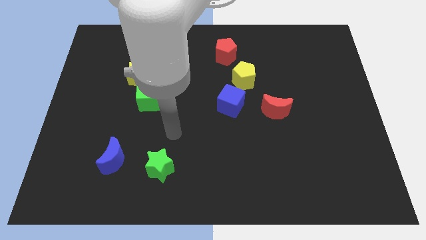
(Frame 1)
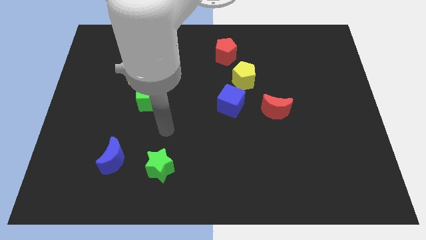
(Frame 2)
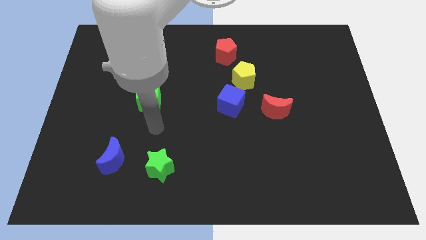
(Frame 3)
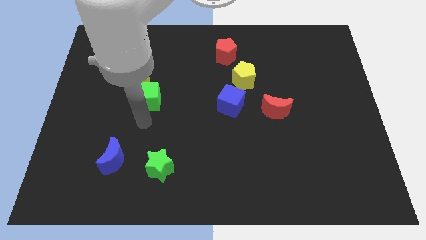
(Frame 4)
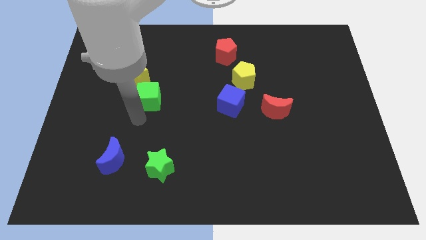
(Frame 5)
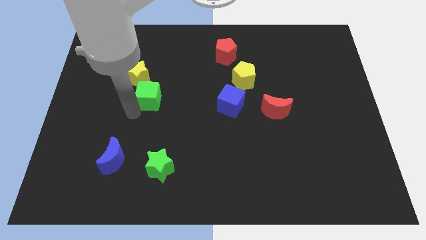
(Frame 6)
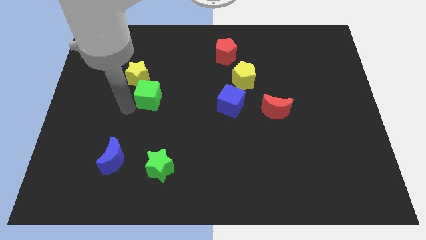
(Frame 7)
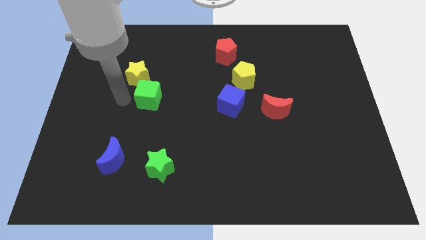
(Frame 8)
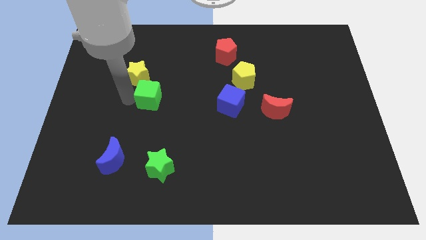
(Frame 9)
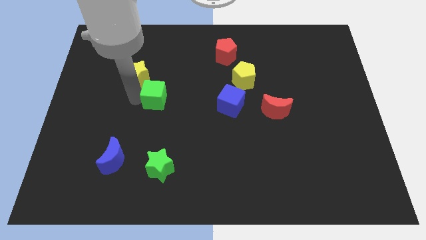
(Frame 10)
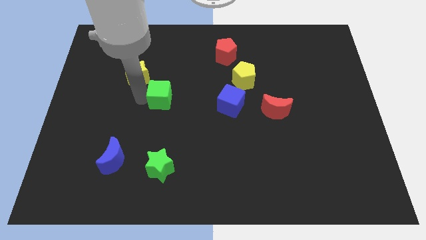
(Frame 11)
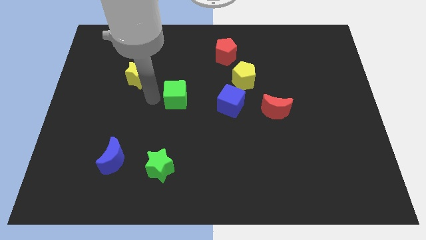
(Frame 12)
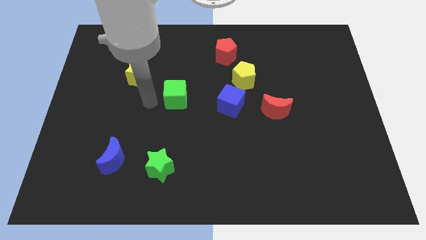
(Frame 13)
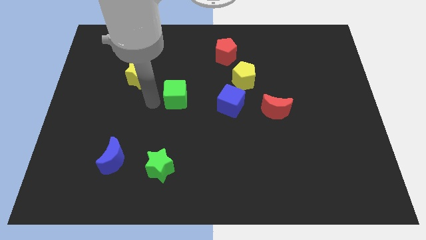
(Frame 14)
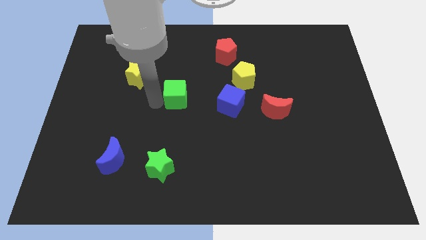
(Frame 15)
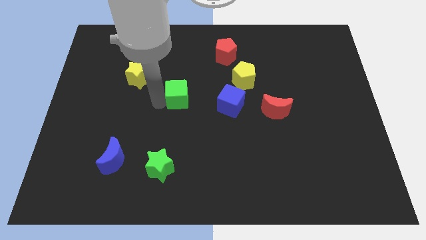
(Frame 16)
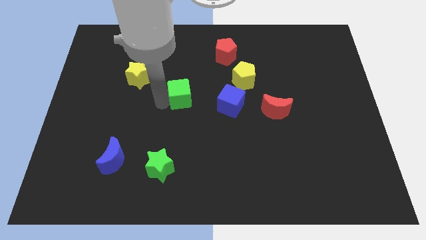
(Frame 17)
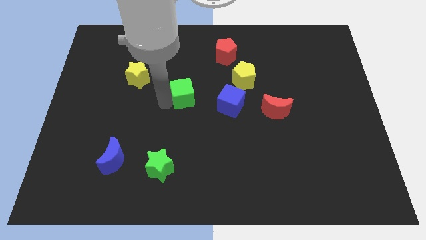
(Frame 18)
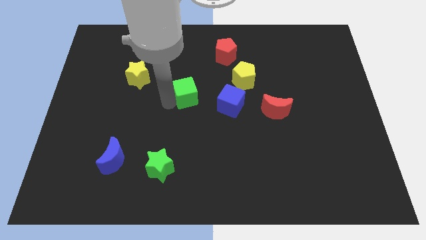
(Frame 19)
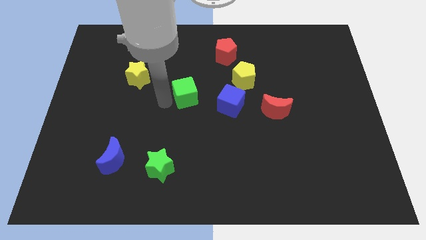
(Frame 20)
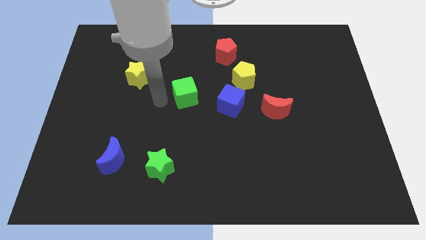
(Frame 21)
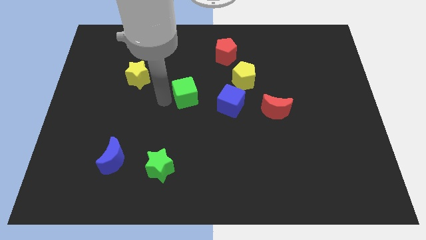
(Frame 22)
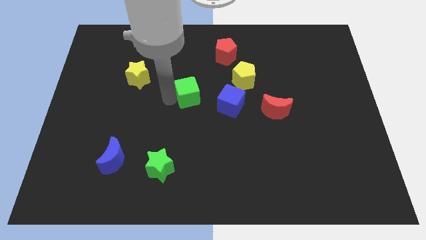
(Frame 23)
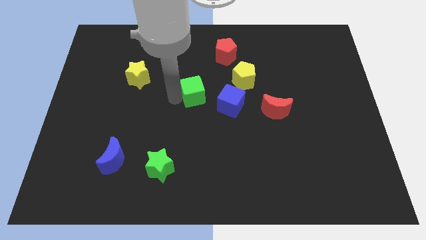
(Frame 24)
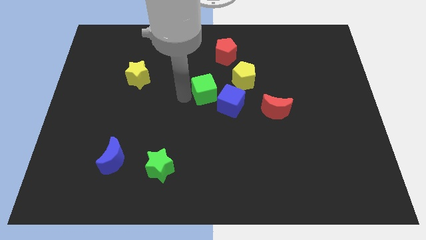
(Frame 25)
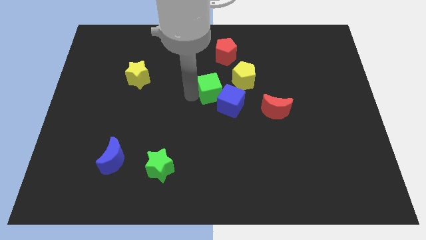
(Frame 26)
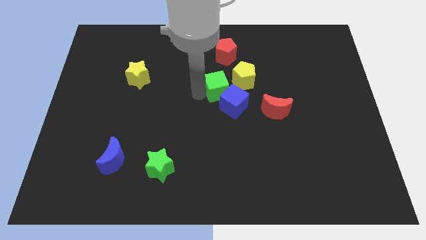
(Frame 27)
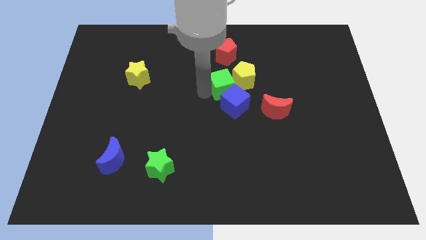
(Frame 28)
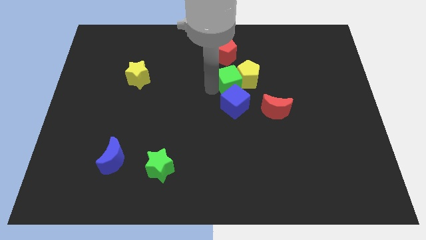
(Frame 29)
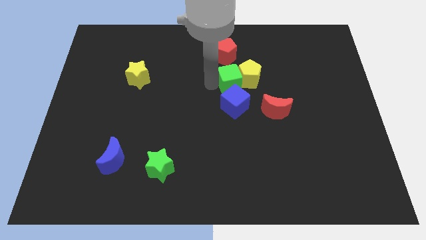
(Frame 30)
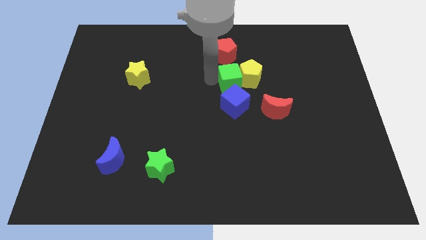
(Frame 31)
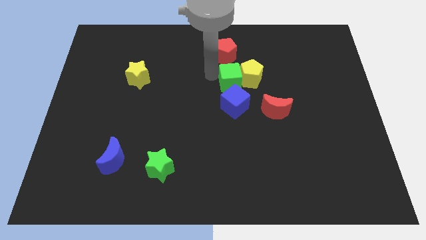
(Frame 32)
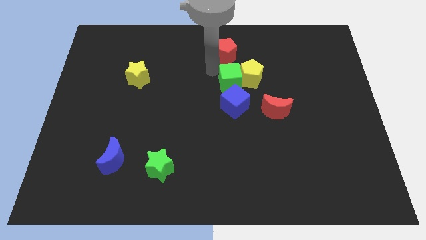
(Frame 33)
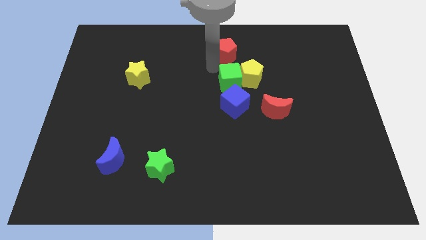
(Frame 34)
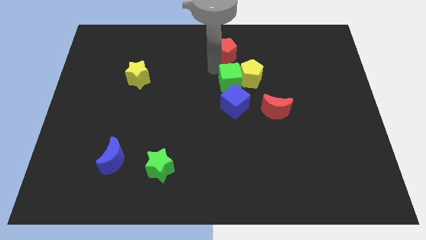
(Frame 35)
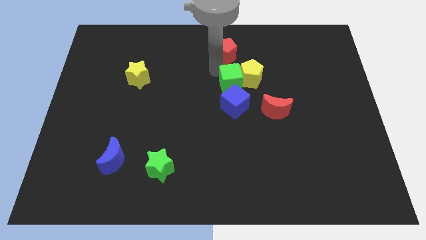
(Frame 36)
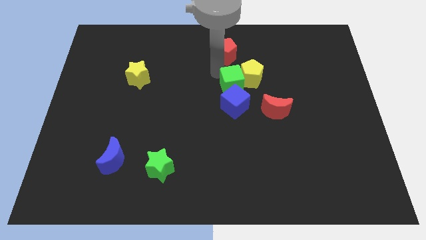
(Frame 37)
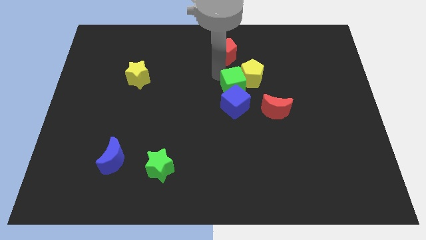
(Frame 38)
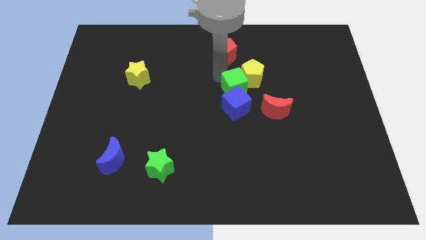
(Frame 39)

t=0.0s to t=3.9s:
move the green cube right

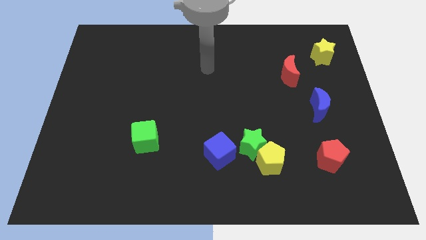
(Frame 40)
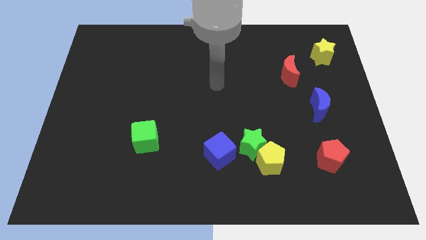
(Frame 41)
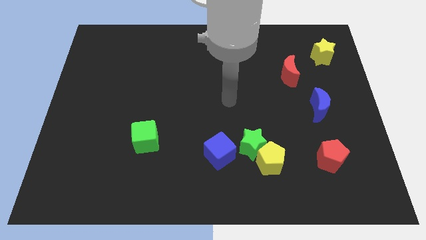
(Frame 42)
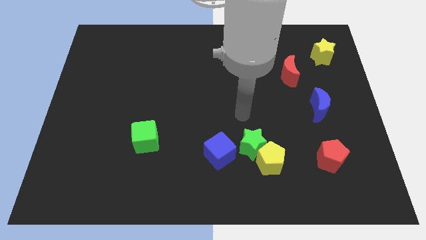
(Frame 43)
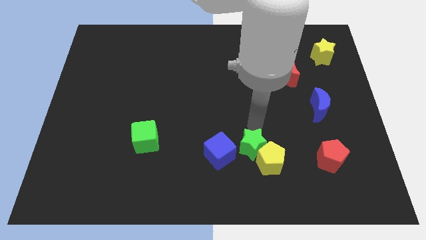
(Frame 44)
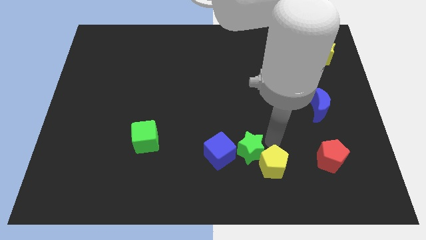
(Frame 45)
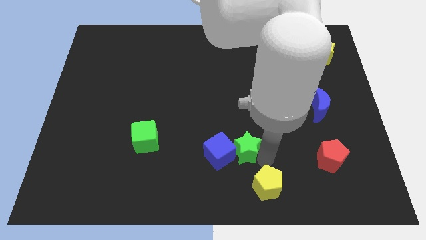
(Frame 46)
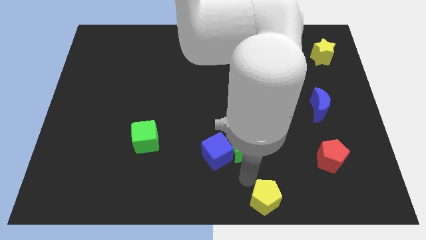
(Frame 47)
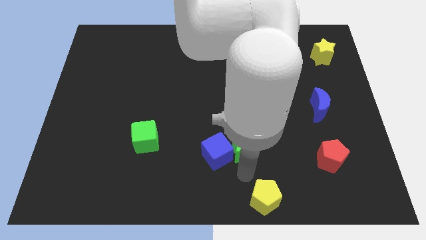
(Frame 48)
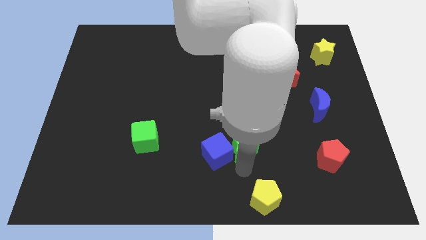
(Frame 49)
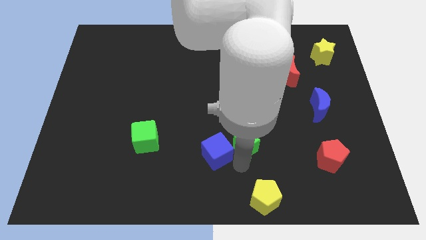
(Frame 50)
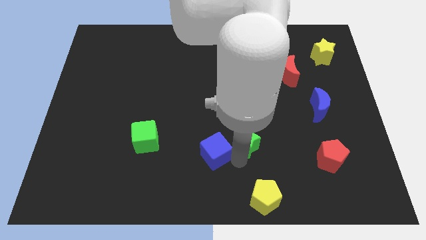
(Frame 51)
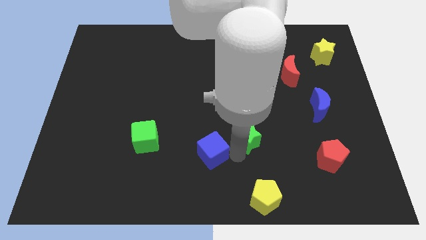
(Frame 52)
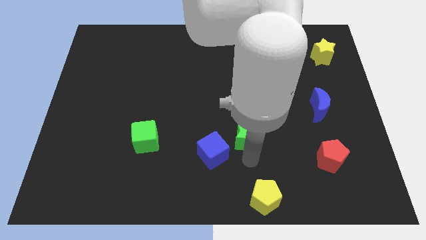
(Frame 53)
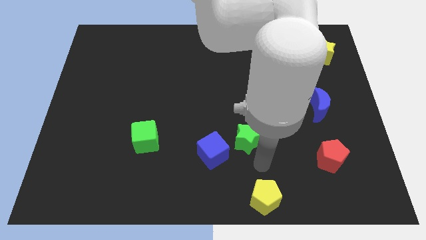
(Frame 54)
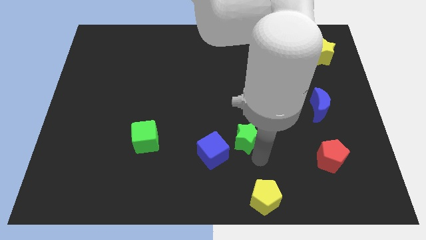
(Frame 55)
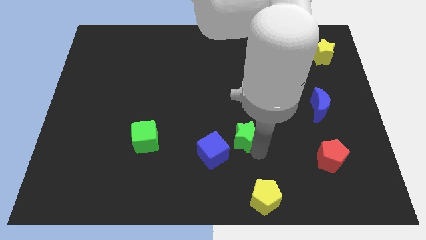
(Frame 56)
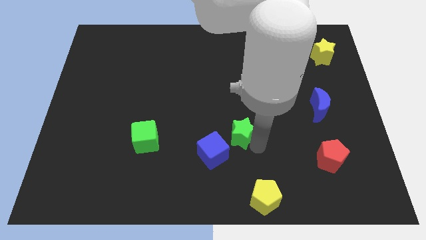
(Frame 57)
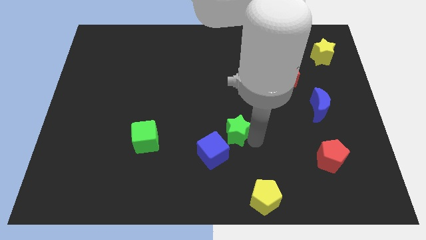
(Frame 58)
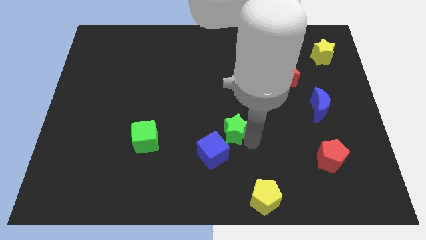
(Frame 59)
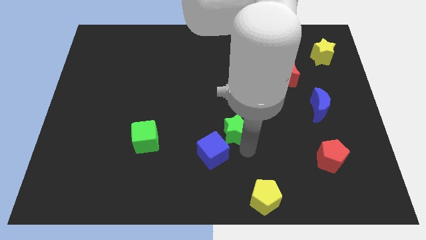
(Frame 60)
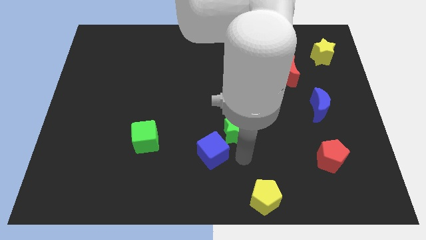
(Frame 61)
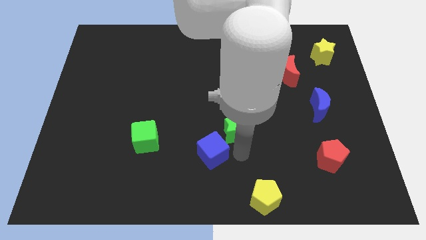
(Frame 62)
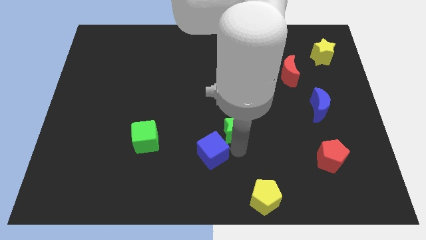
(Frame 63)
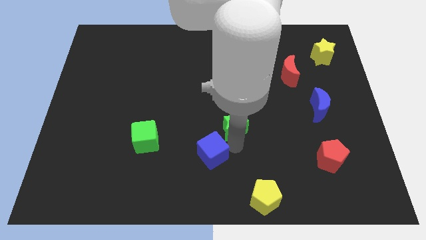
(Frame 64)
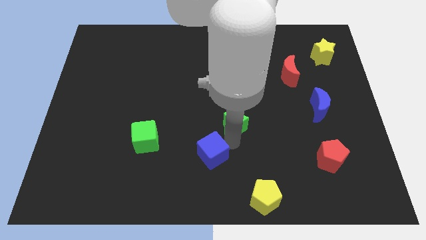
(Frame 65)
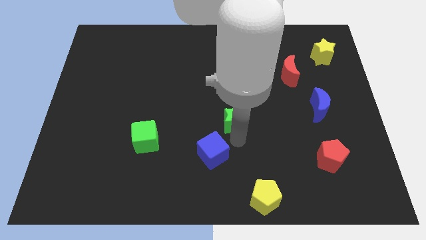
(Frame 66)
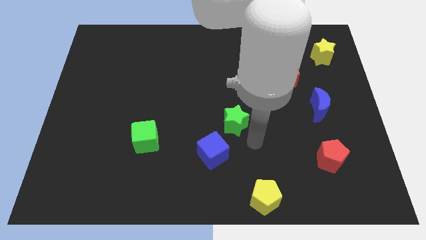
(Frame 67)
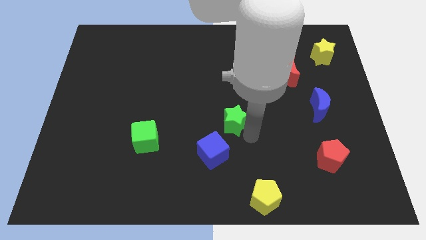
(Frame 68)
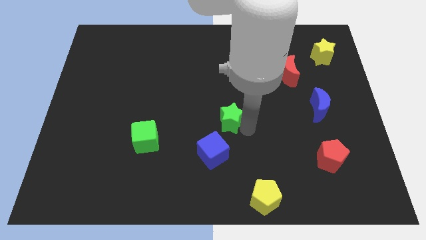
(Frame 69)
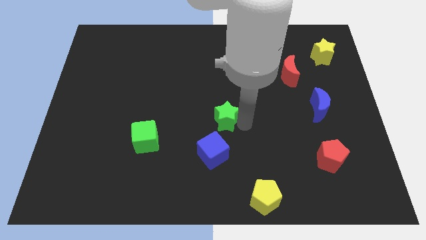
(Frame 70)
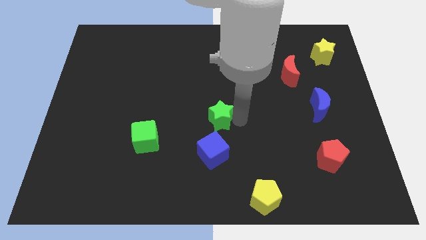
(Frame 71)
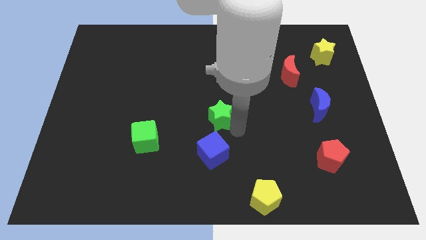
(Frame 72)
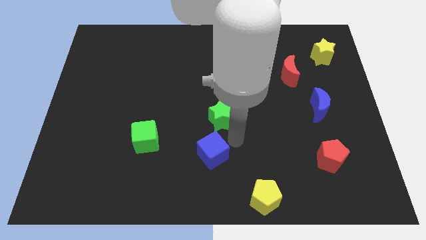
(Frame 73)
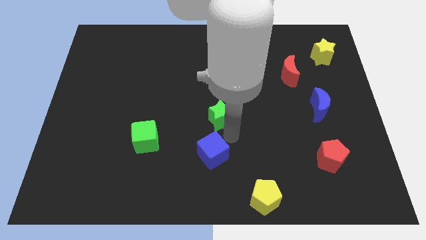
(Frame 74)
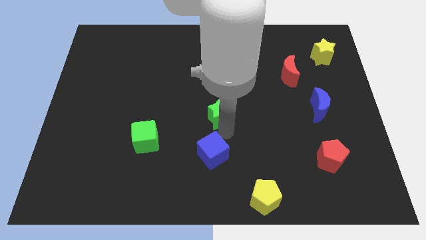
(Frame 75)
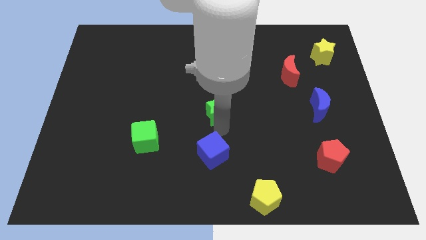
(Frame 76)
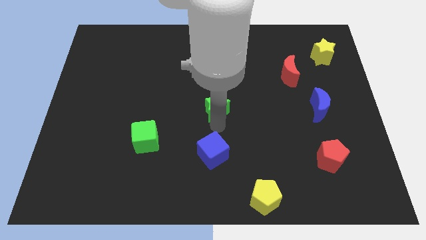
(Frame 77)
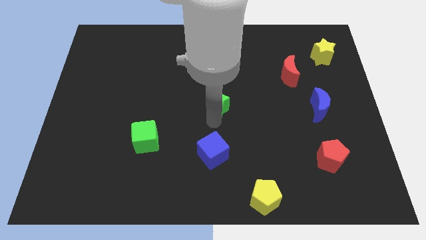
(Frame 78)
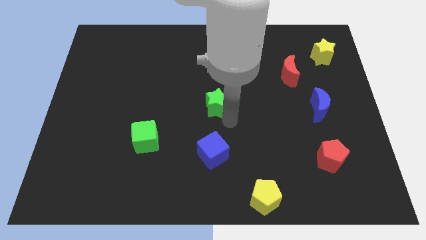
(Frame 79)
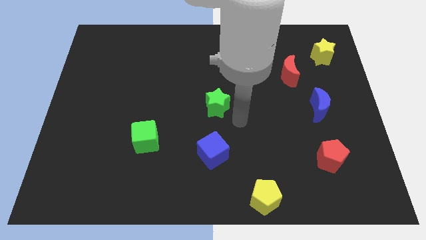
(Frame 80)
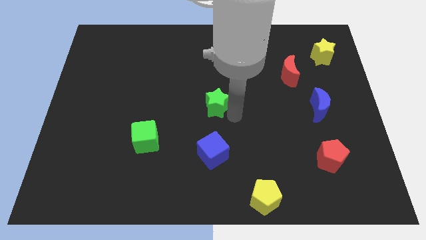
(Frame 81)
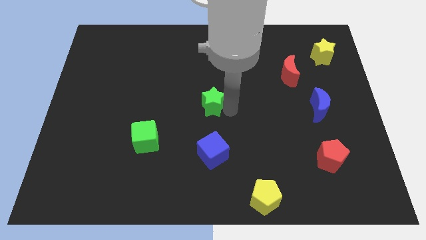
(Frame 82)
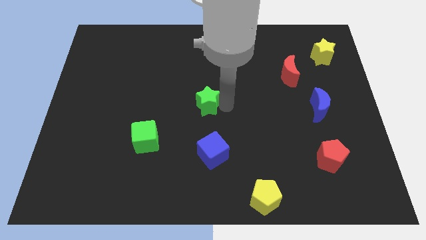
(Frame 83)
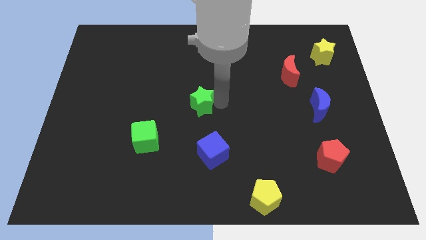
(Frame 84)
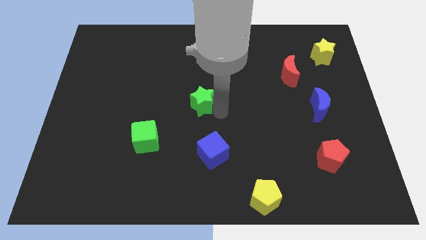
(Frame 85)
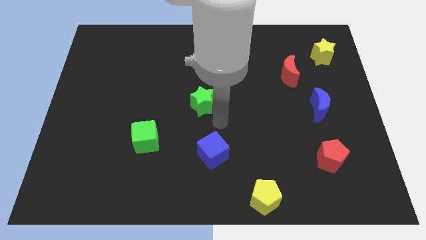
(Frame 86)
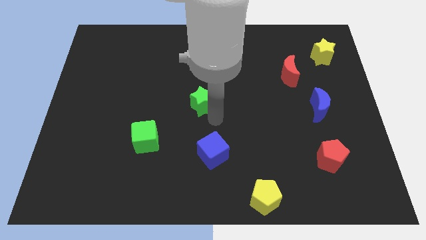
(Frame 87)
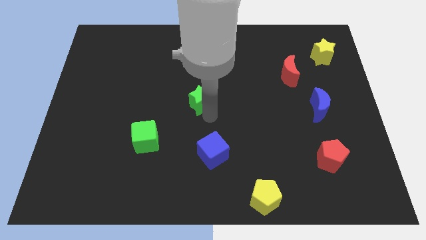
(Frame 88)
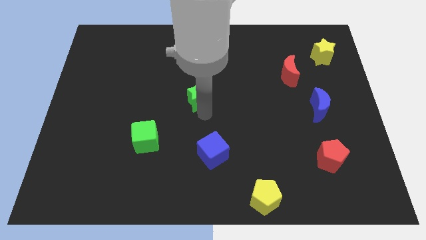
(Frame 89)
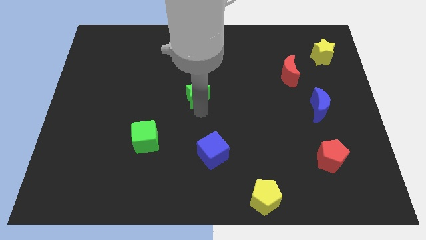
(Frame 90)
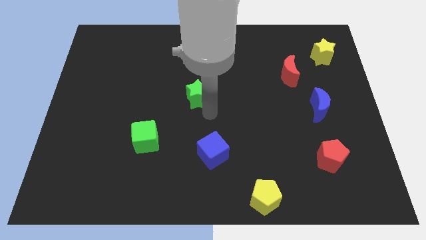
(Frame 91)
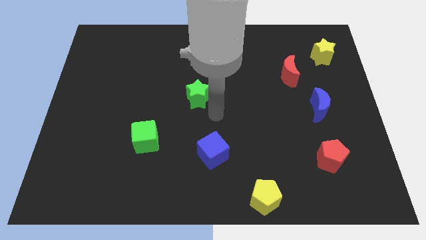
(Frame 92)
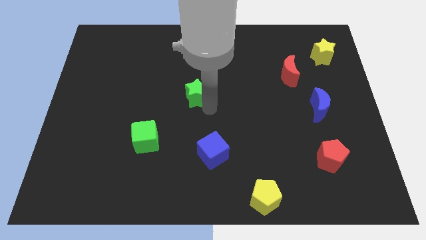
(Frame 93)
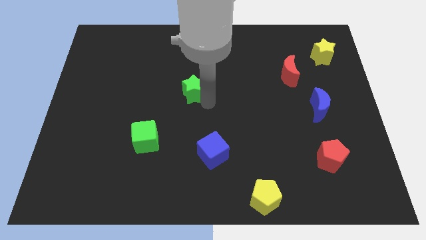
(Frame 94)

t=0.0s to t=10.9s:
move the green star upwards and to the left
